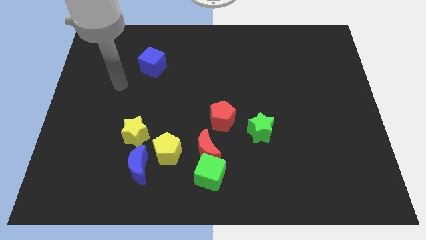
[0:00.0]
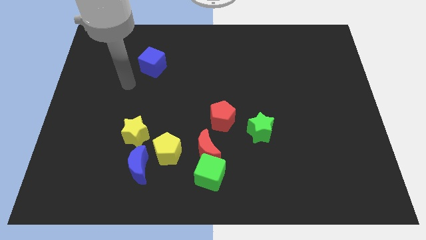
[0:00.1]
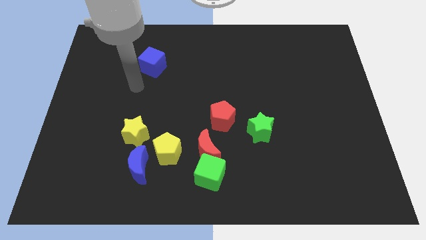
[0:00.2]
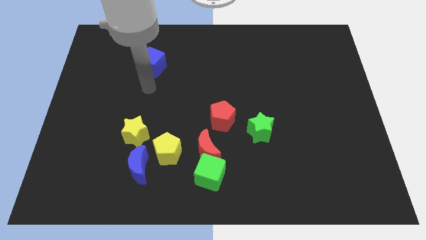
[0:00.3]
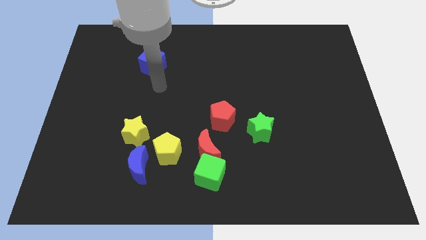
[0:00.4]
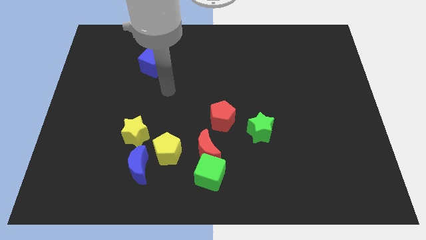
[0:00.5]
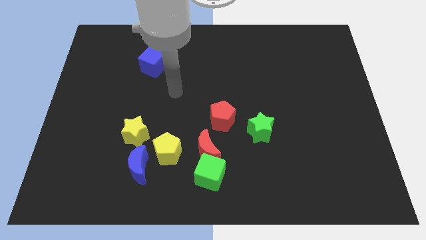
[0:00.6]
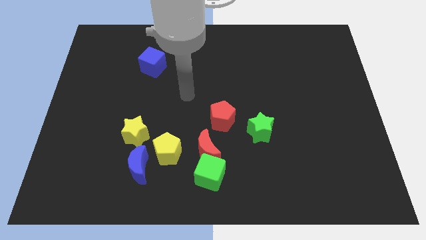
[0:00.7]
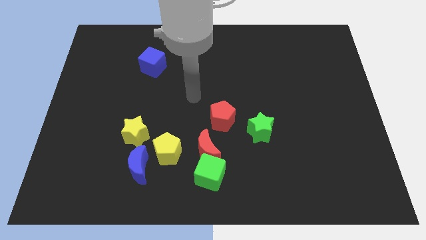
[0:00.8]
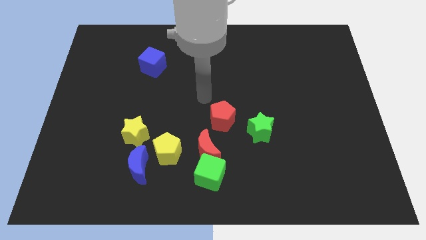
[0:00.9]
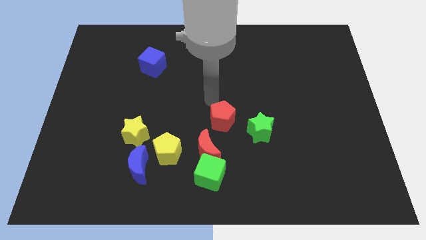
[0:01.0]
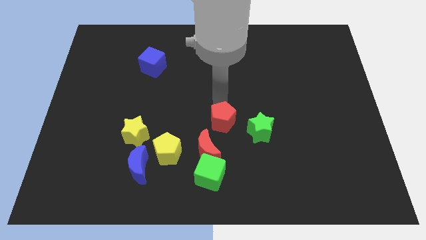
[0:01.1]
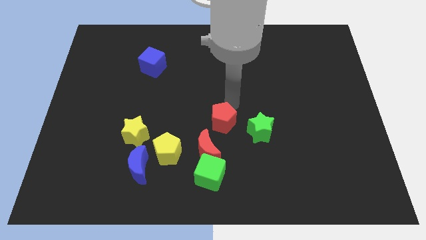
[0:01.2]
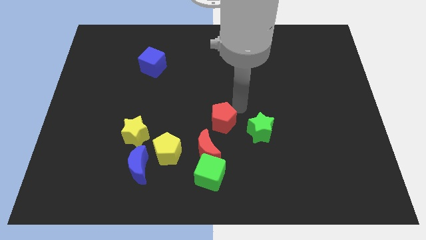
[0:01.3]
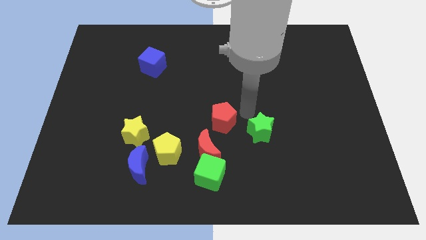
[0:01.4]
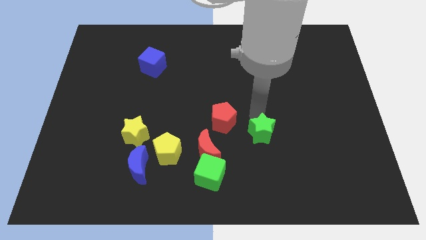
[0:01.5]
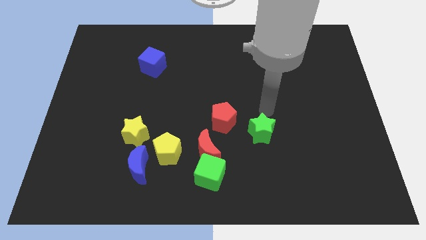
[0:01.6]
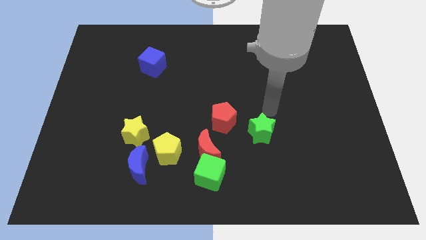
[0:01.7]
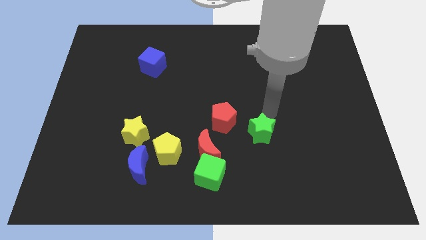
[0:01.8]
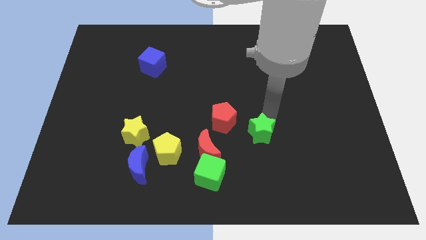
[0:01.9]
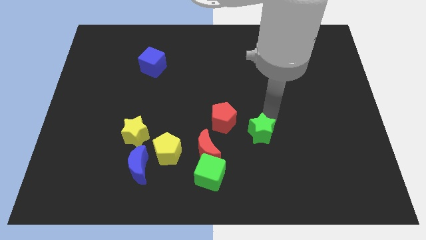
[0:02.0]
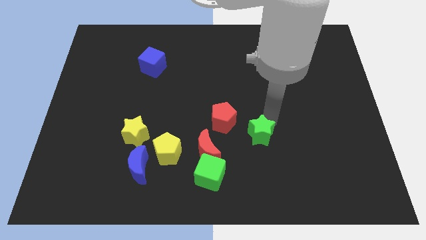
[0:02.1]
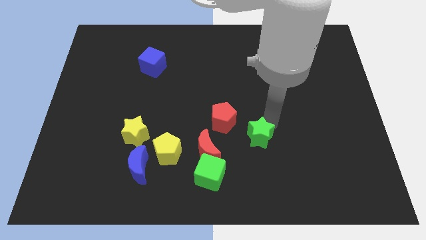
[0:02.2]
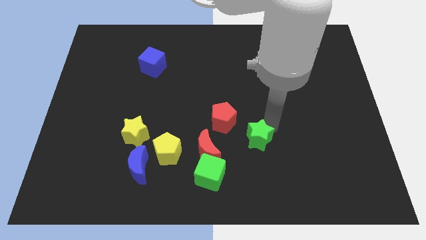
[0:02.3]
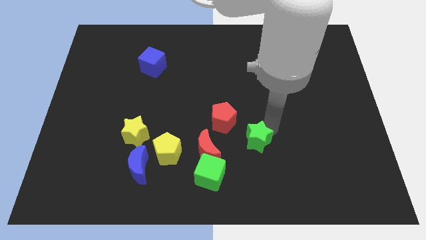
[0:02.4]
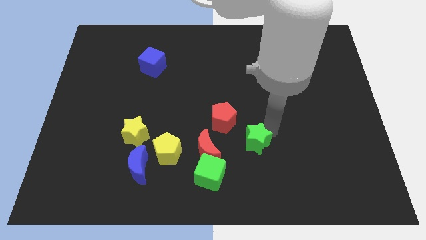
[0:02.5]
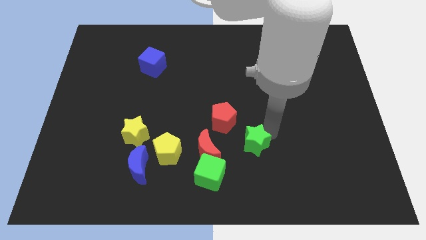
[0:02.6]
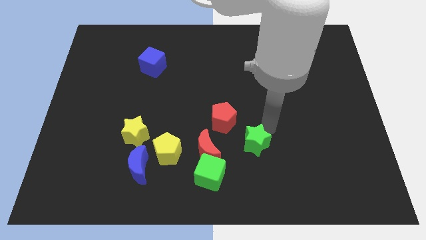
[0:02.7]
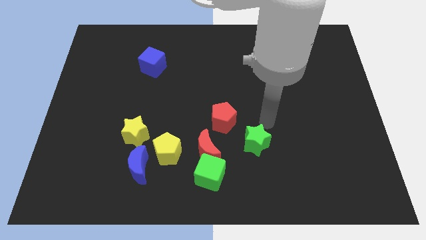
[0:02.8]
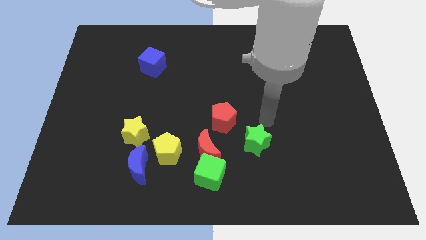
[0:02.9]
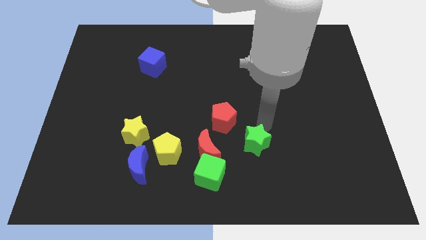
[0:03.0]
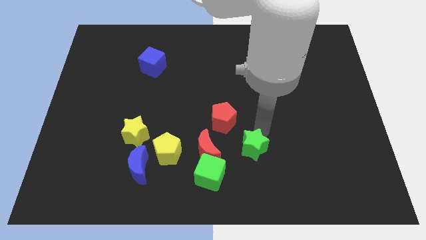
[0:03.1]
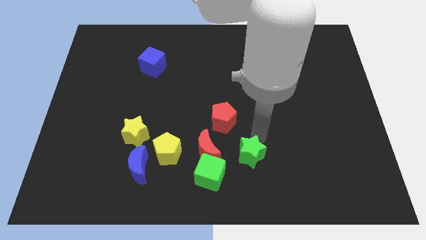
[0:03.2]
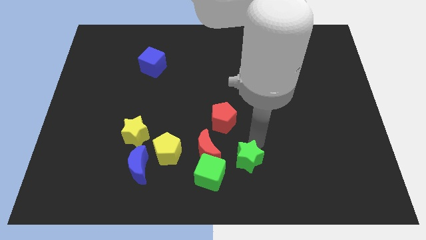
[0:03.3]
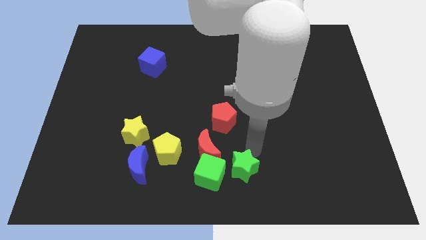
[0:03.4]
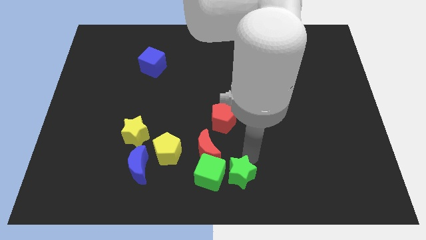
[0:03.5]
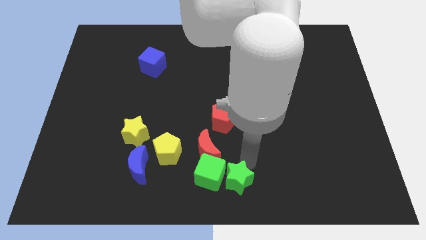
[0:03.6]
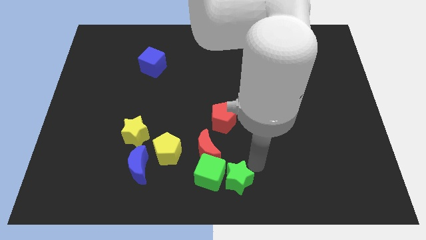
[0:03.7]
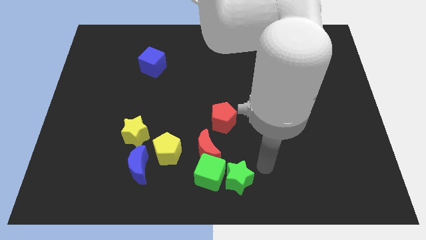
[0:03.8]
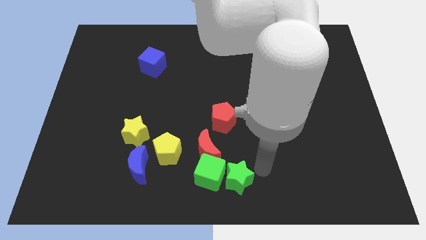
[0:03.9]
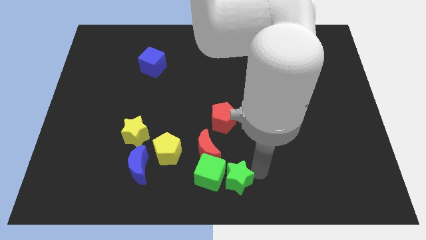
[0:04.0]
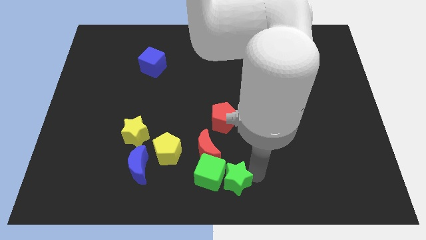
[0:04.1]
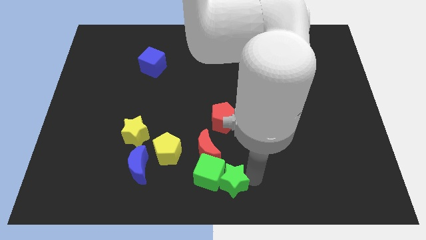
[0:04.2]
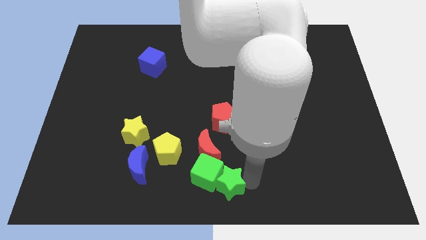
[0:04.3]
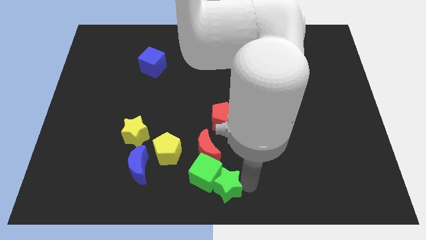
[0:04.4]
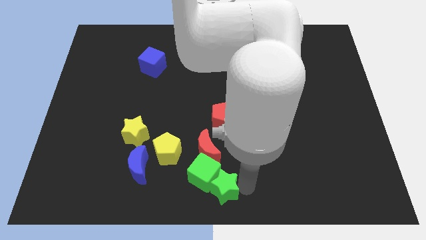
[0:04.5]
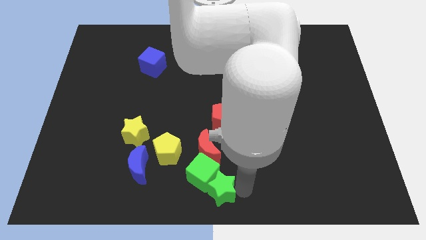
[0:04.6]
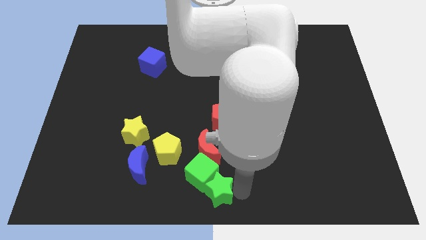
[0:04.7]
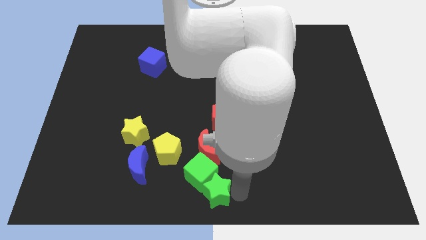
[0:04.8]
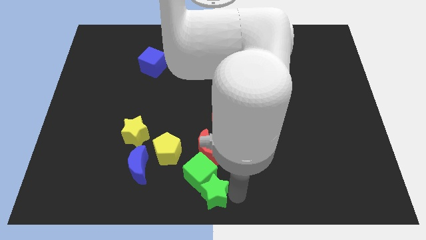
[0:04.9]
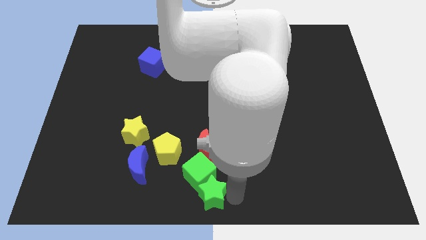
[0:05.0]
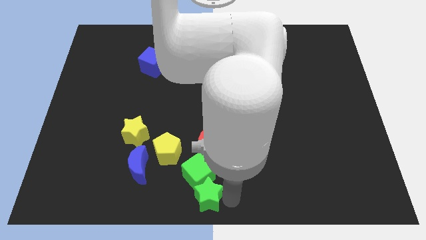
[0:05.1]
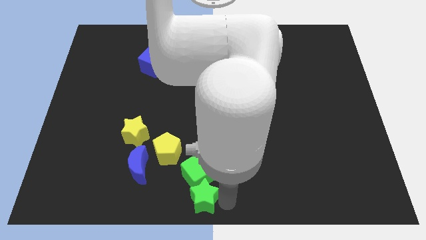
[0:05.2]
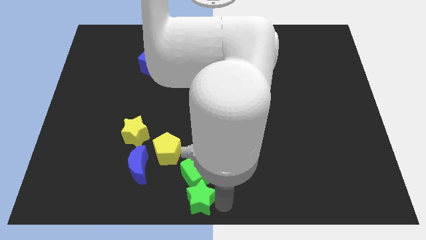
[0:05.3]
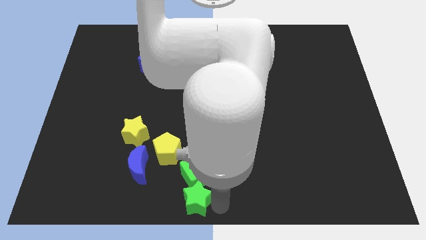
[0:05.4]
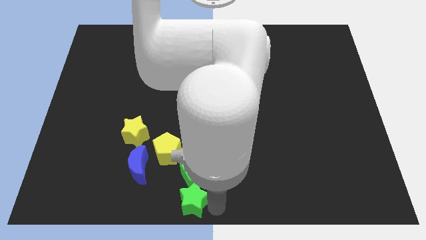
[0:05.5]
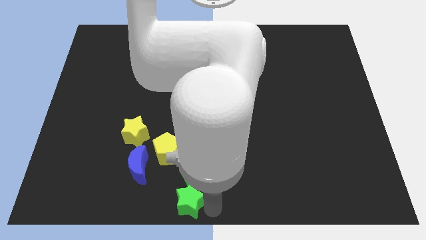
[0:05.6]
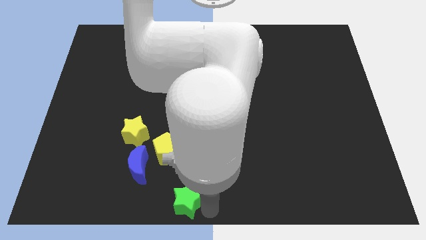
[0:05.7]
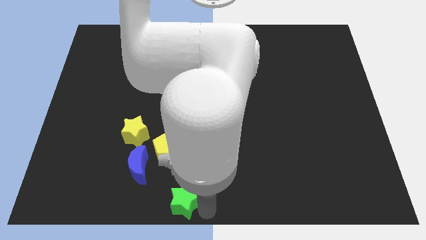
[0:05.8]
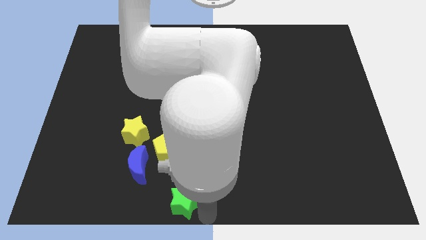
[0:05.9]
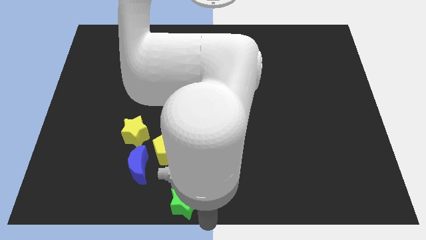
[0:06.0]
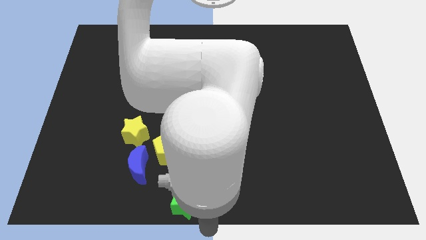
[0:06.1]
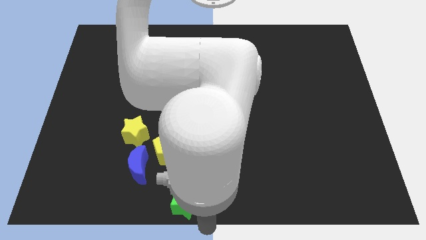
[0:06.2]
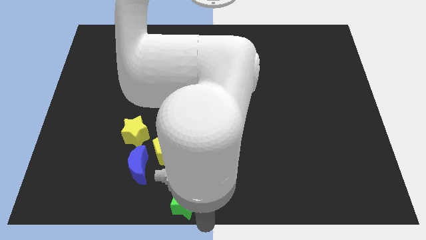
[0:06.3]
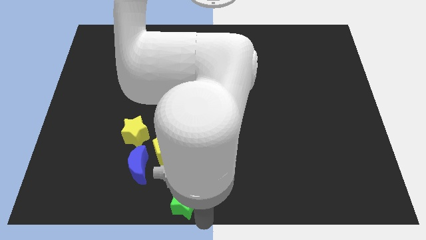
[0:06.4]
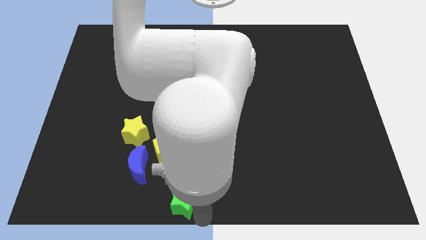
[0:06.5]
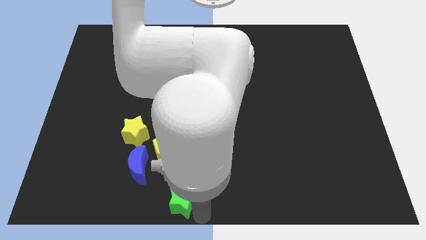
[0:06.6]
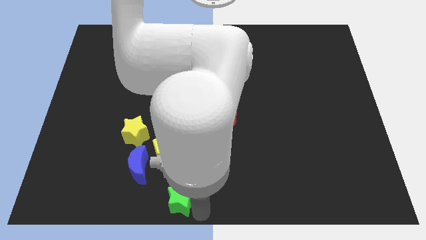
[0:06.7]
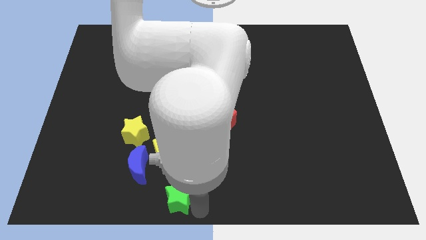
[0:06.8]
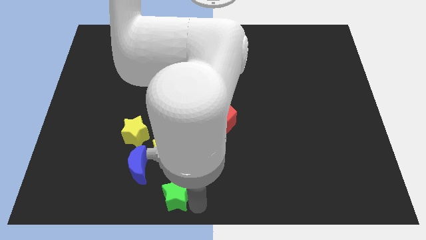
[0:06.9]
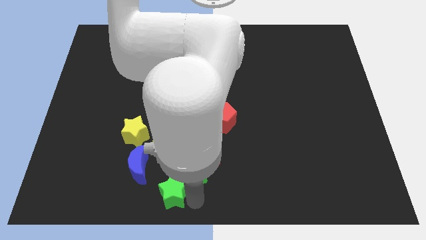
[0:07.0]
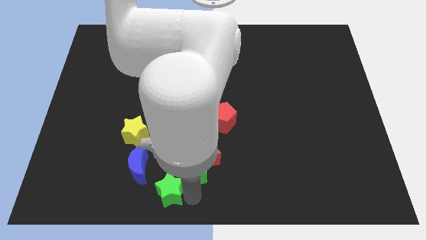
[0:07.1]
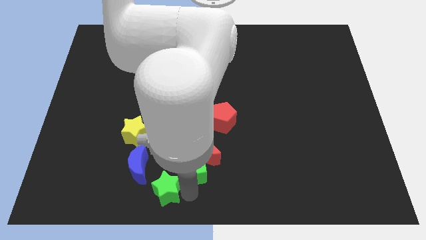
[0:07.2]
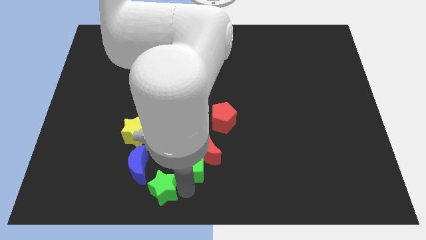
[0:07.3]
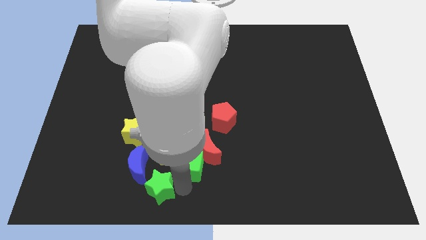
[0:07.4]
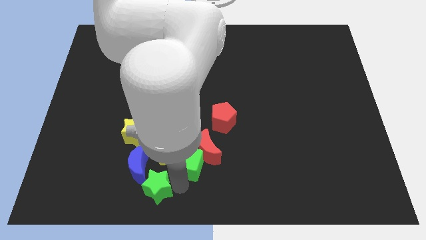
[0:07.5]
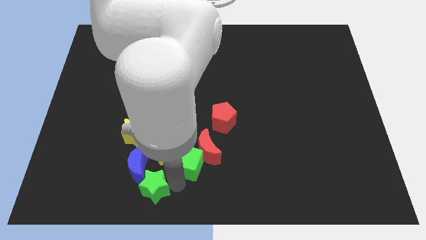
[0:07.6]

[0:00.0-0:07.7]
move the green star towards the blue moon
